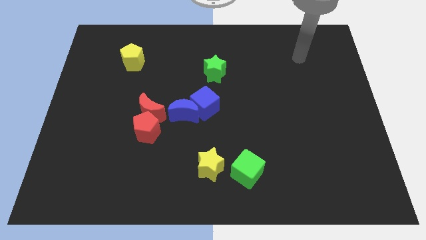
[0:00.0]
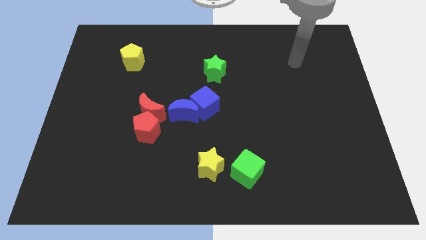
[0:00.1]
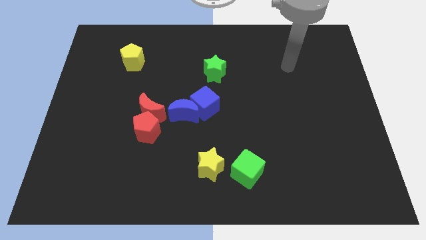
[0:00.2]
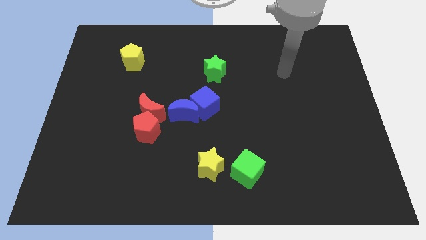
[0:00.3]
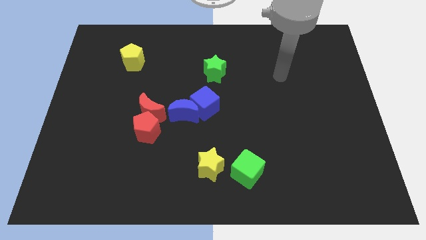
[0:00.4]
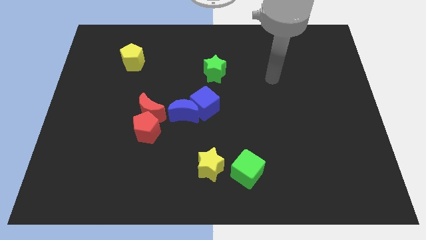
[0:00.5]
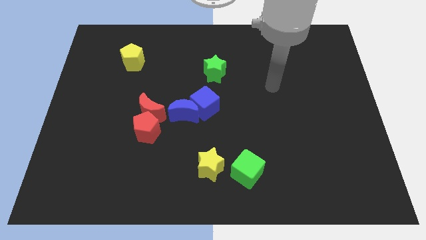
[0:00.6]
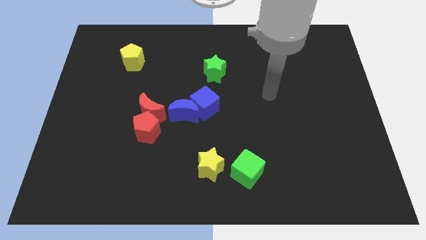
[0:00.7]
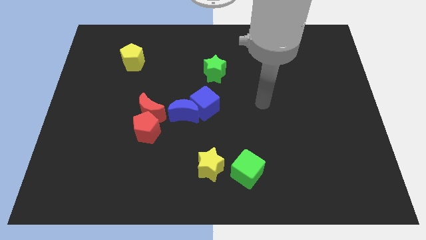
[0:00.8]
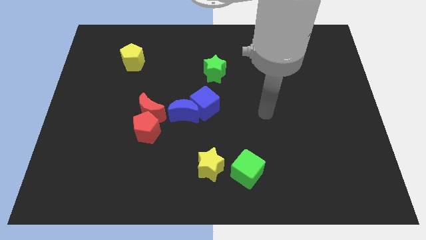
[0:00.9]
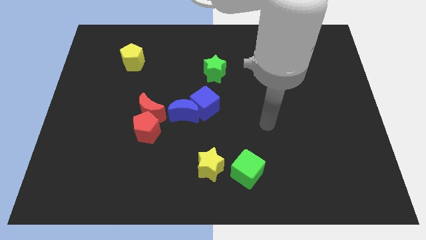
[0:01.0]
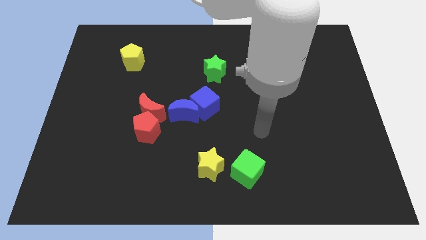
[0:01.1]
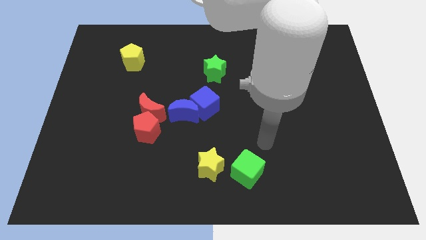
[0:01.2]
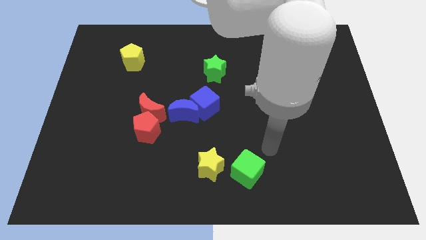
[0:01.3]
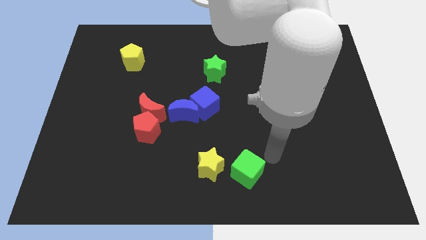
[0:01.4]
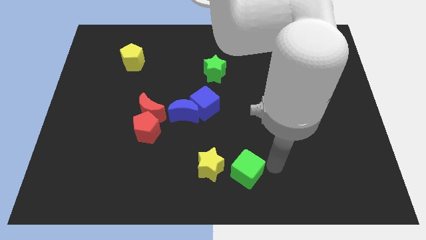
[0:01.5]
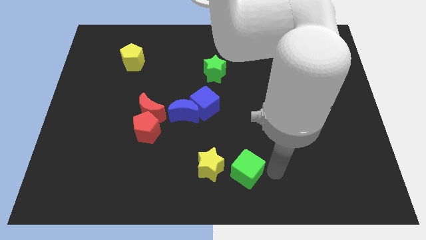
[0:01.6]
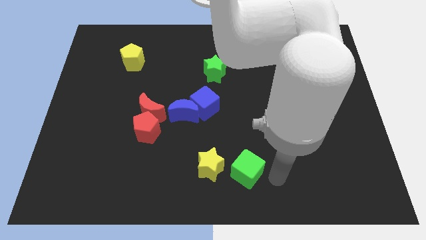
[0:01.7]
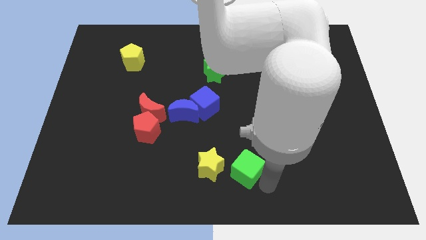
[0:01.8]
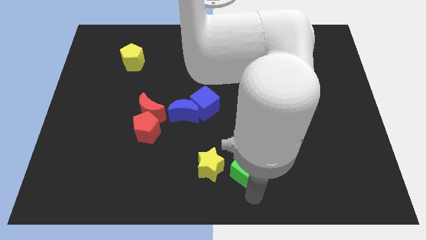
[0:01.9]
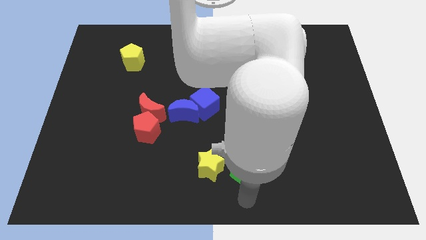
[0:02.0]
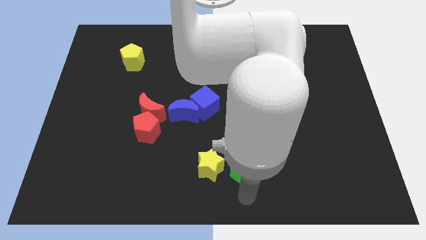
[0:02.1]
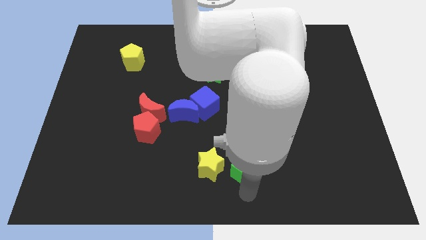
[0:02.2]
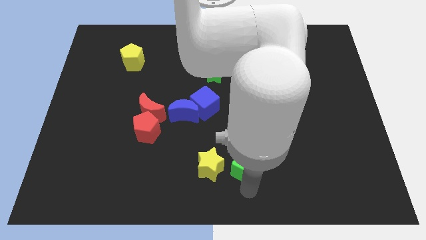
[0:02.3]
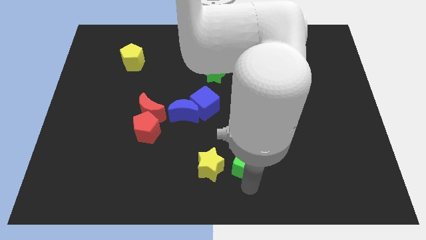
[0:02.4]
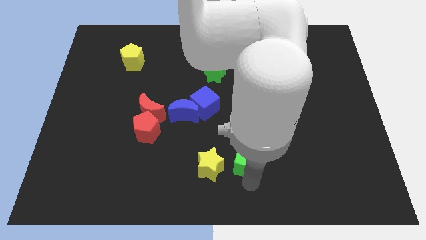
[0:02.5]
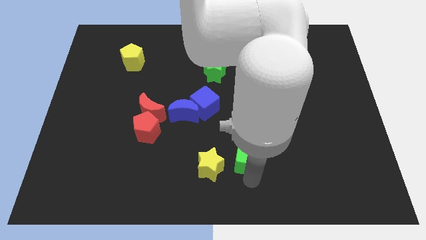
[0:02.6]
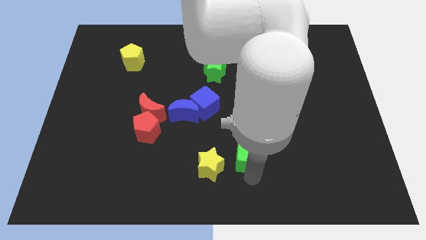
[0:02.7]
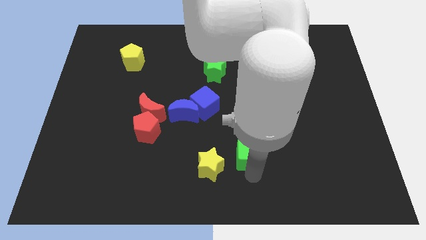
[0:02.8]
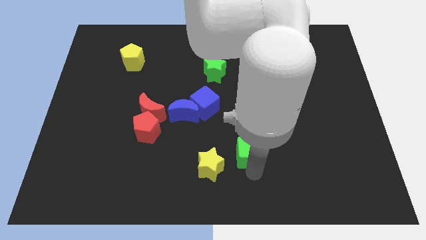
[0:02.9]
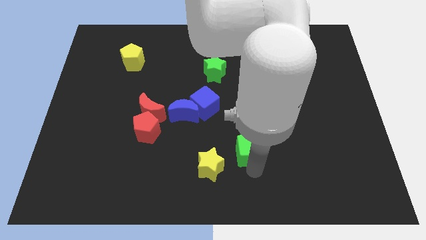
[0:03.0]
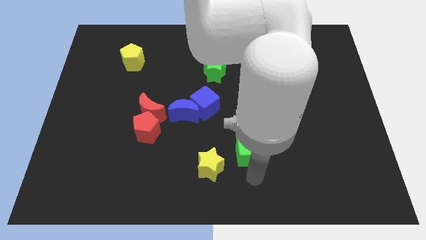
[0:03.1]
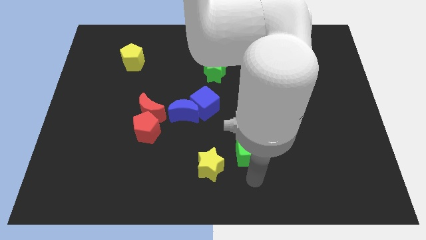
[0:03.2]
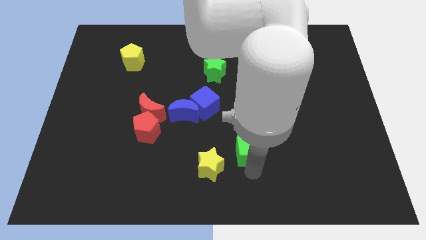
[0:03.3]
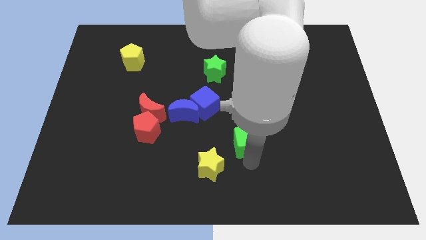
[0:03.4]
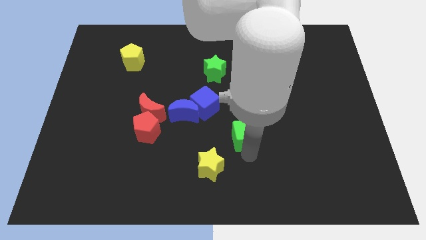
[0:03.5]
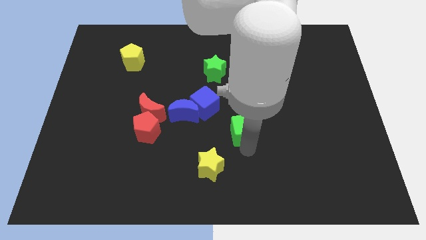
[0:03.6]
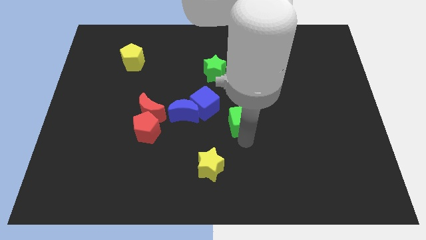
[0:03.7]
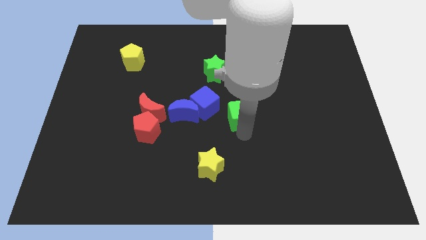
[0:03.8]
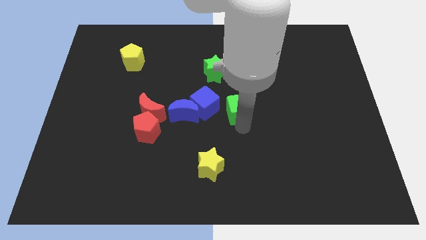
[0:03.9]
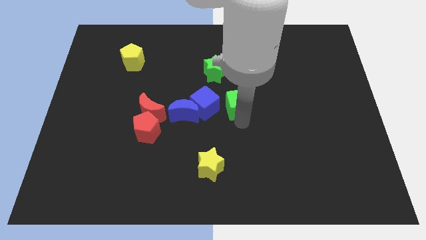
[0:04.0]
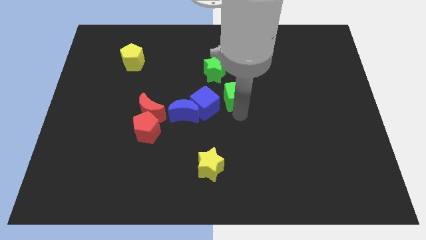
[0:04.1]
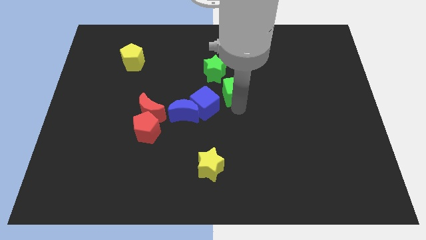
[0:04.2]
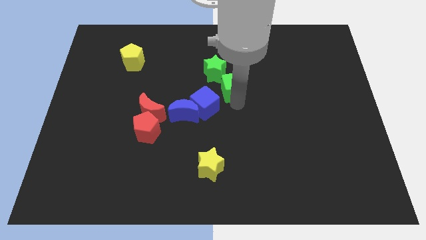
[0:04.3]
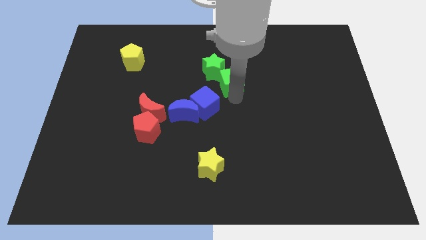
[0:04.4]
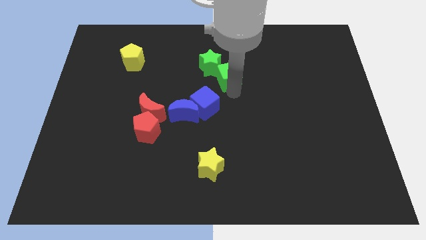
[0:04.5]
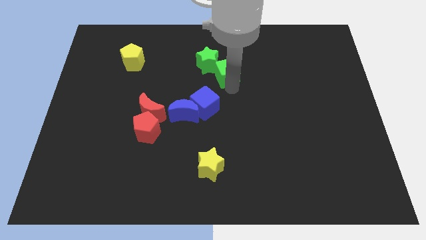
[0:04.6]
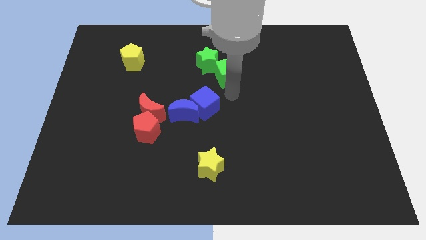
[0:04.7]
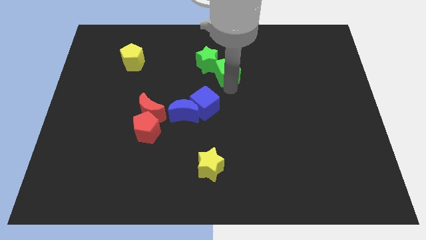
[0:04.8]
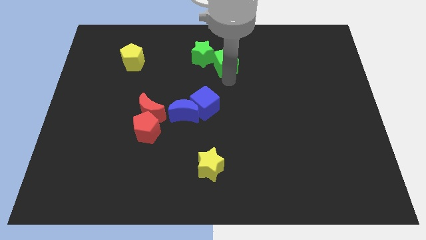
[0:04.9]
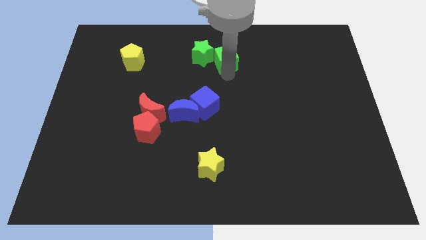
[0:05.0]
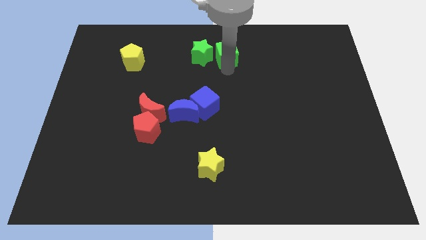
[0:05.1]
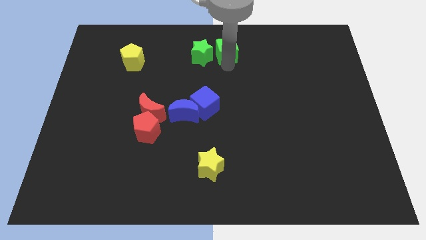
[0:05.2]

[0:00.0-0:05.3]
slide the green cube to the top

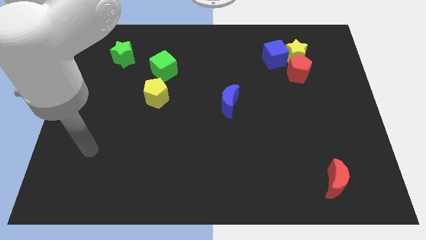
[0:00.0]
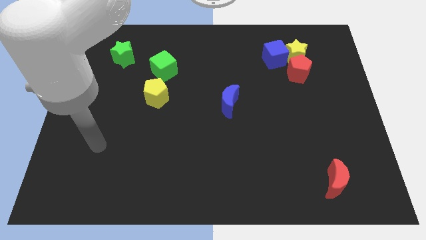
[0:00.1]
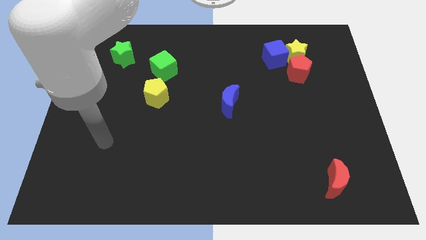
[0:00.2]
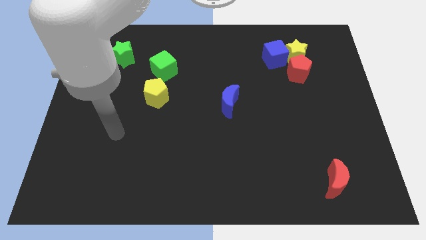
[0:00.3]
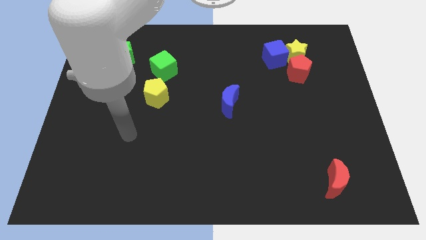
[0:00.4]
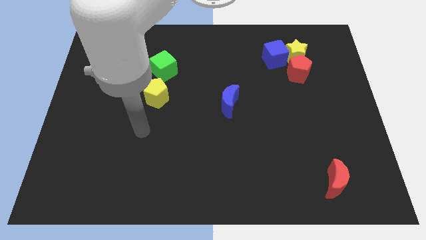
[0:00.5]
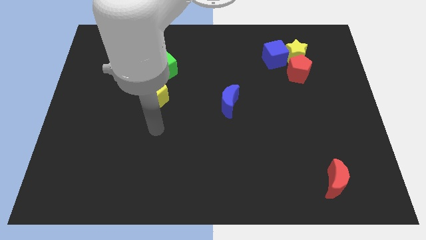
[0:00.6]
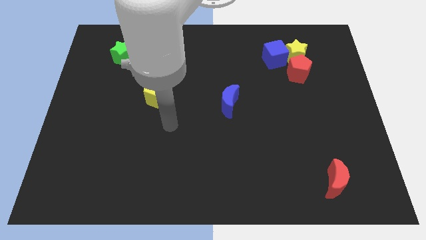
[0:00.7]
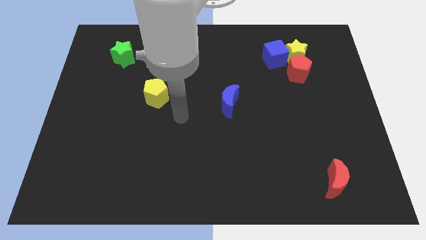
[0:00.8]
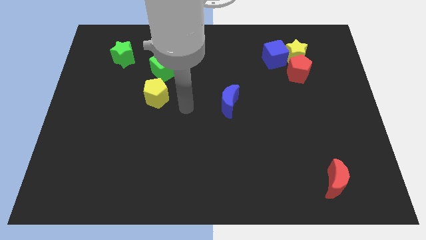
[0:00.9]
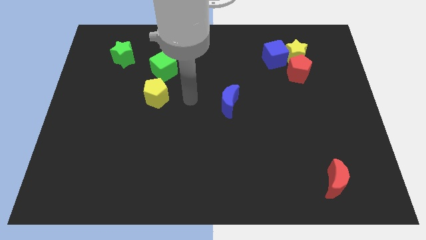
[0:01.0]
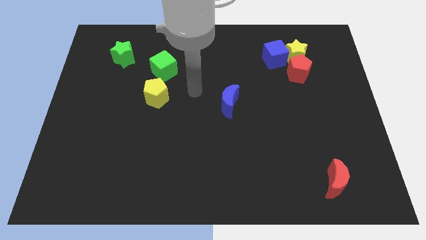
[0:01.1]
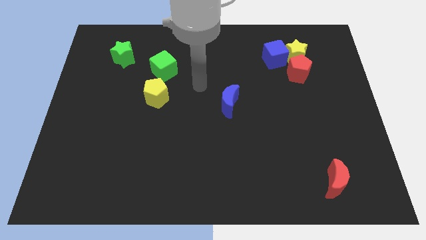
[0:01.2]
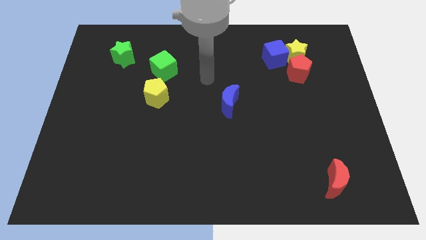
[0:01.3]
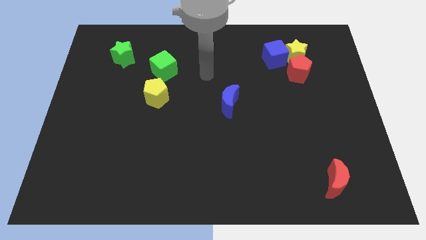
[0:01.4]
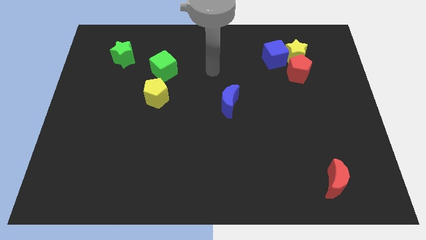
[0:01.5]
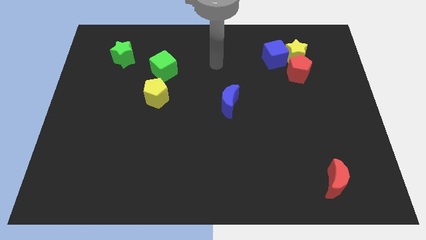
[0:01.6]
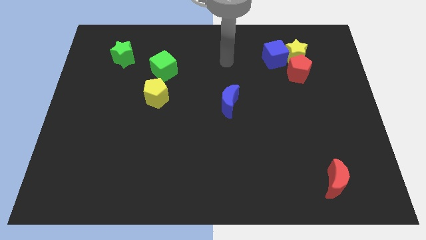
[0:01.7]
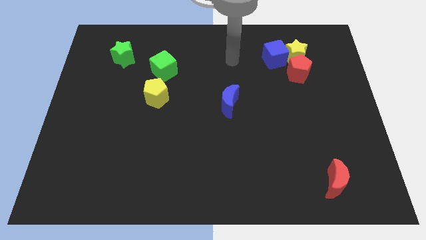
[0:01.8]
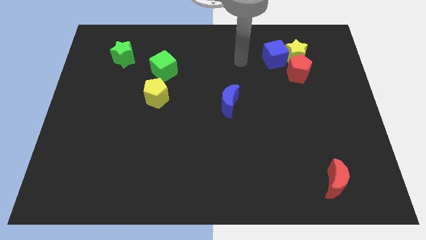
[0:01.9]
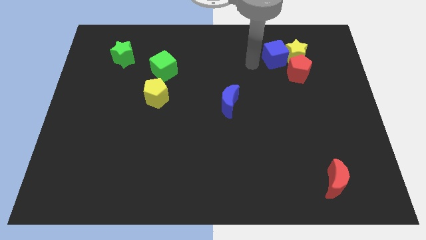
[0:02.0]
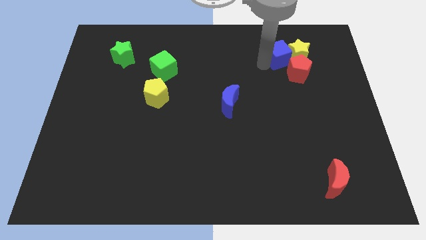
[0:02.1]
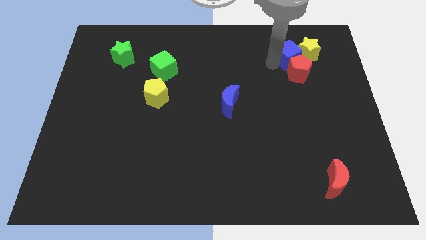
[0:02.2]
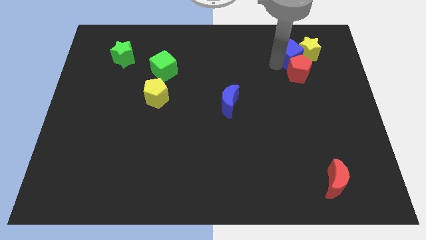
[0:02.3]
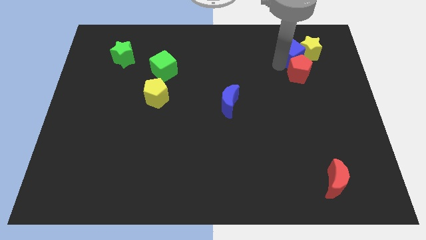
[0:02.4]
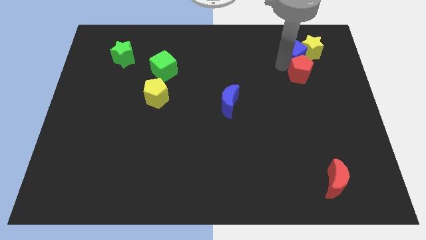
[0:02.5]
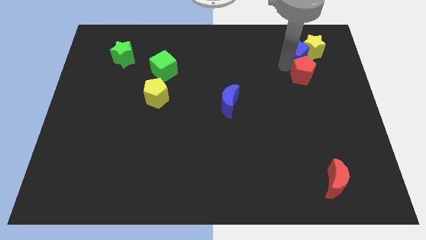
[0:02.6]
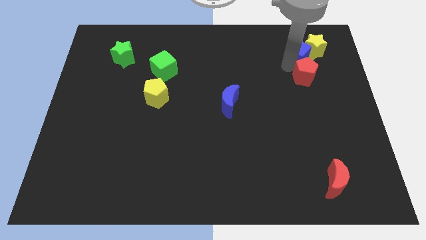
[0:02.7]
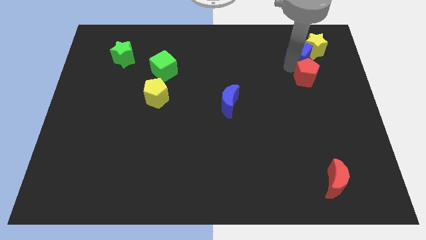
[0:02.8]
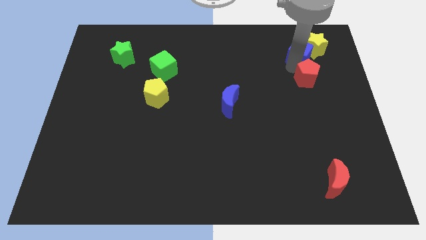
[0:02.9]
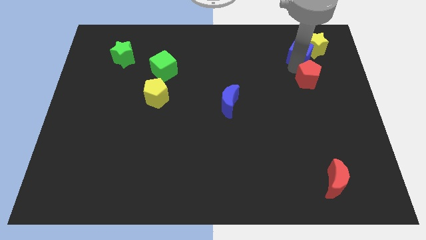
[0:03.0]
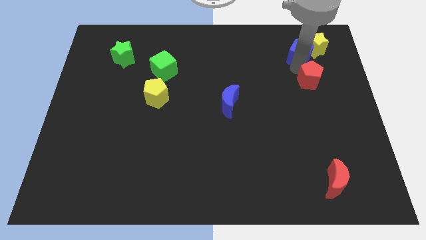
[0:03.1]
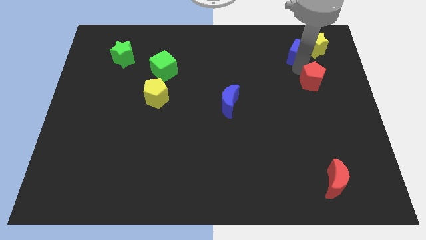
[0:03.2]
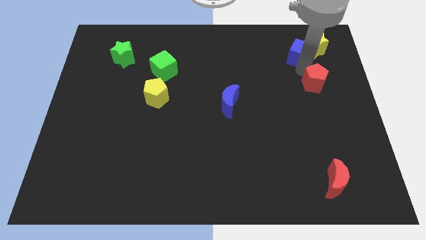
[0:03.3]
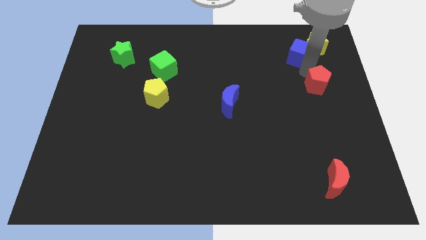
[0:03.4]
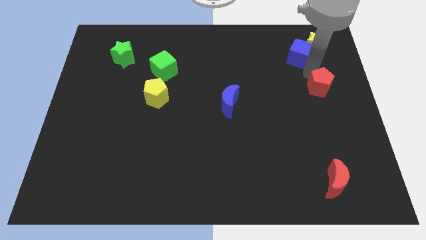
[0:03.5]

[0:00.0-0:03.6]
move the red pentagon to the right side of the board
